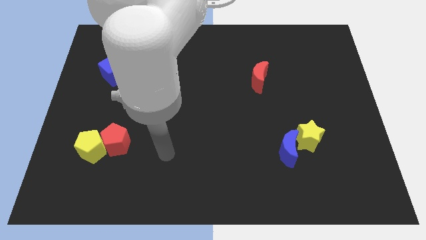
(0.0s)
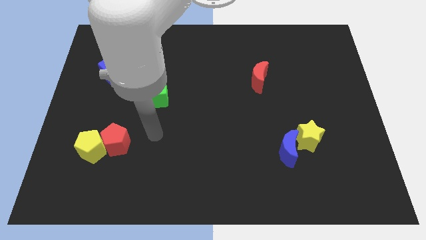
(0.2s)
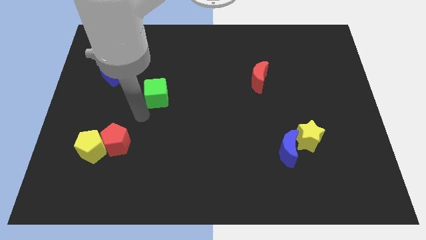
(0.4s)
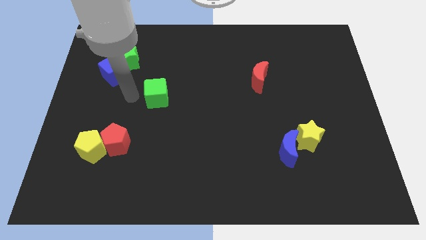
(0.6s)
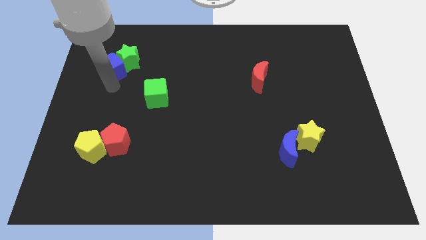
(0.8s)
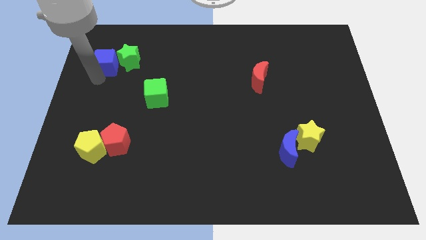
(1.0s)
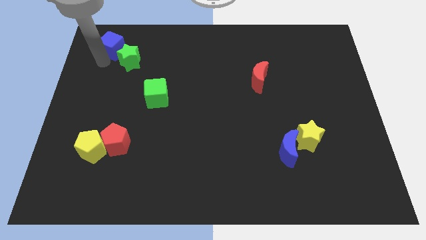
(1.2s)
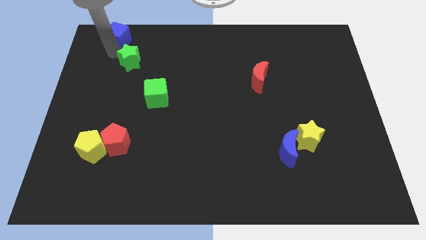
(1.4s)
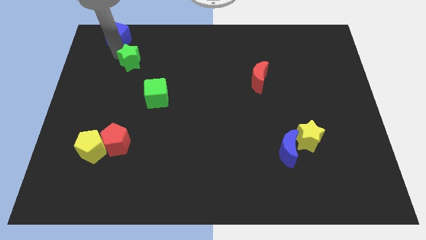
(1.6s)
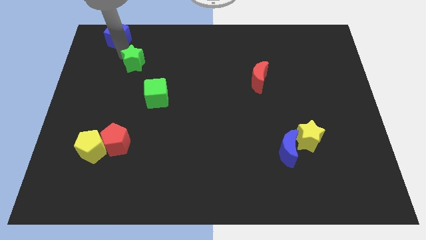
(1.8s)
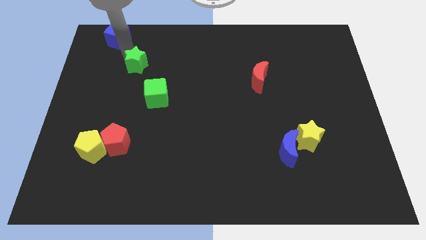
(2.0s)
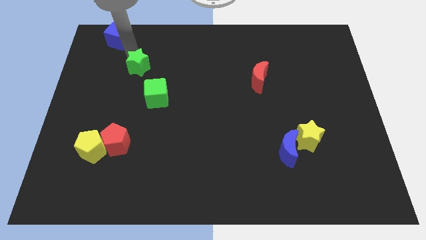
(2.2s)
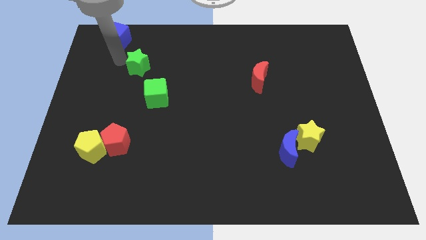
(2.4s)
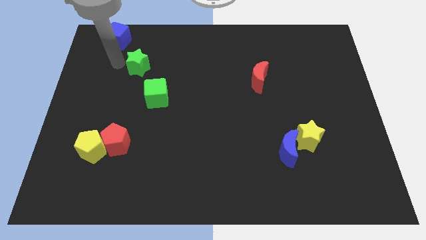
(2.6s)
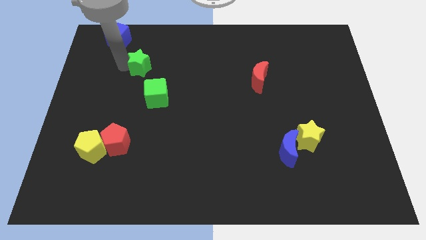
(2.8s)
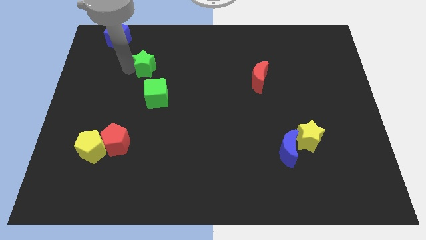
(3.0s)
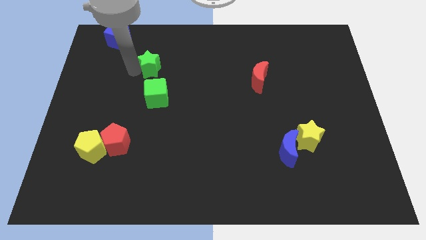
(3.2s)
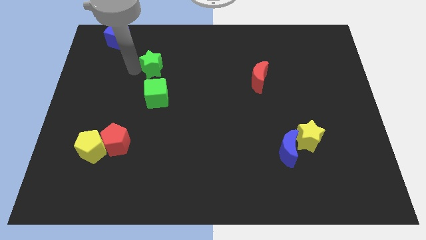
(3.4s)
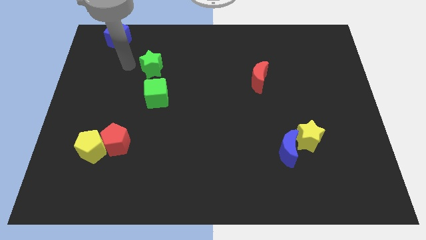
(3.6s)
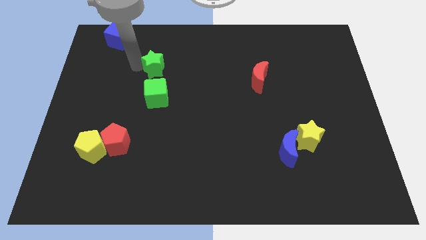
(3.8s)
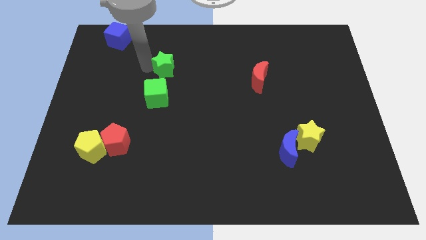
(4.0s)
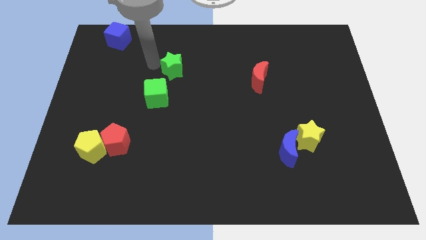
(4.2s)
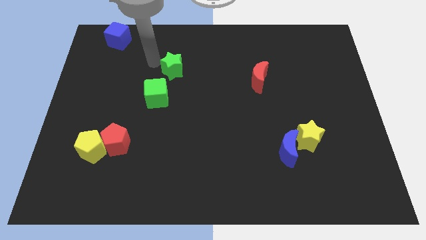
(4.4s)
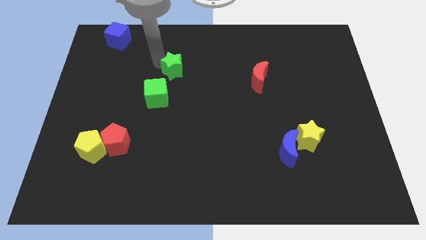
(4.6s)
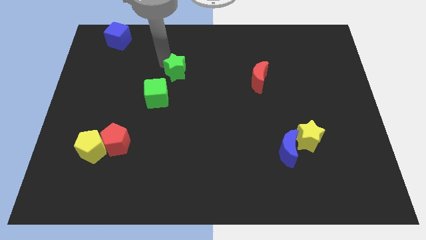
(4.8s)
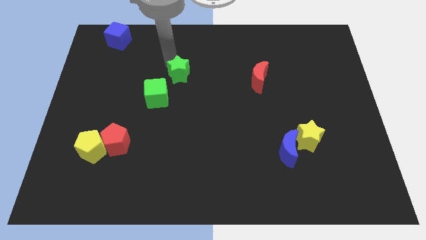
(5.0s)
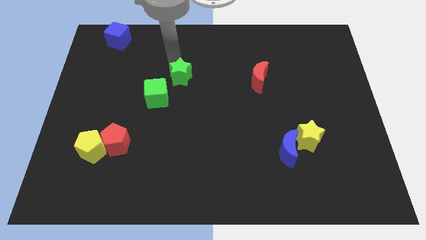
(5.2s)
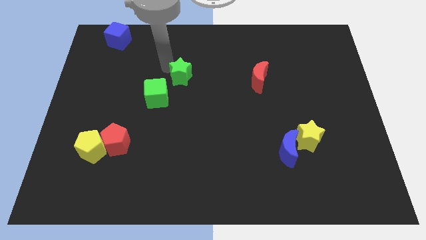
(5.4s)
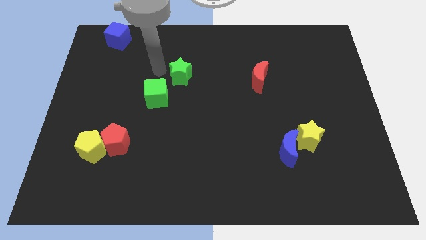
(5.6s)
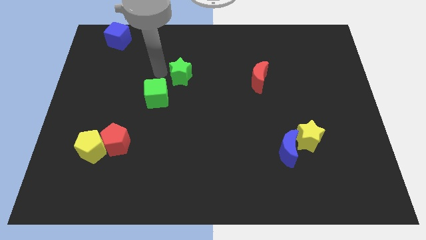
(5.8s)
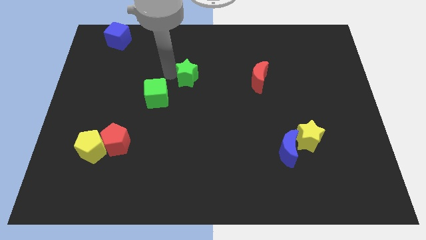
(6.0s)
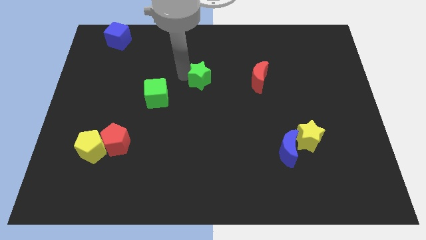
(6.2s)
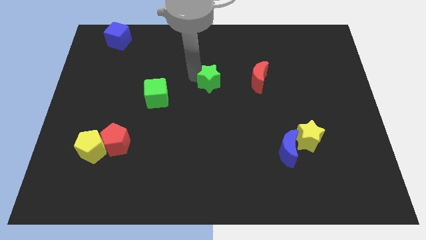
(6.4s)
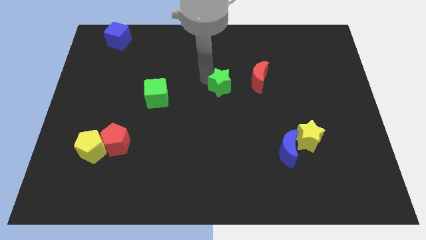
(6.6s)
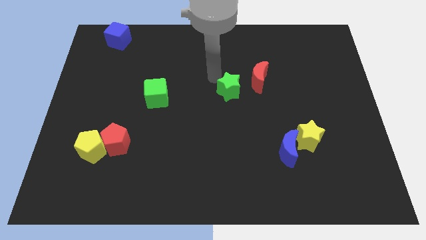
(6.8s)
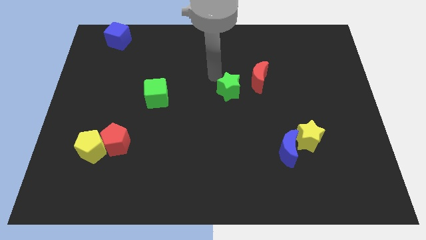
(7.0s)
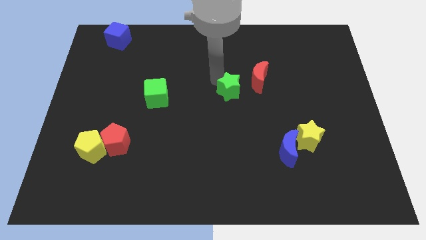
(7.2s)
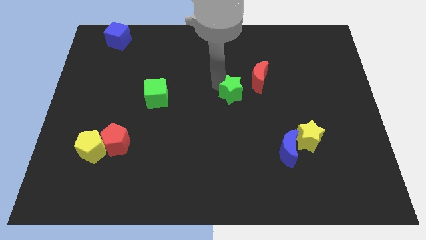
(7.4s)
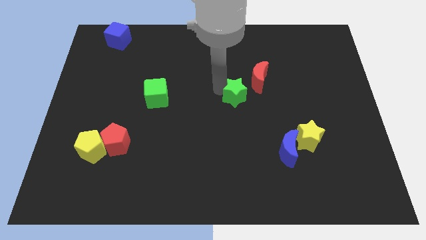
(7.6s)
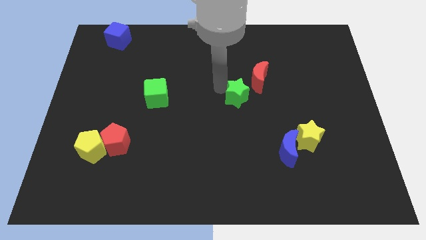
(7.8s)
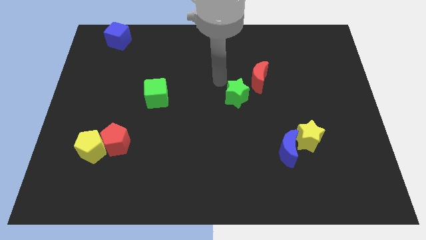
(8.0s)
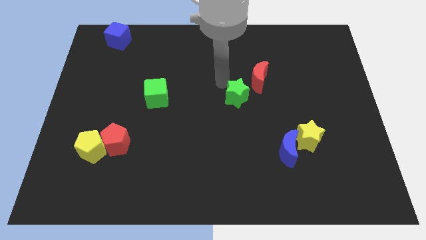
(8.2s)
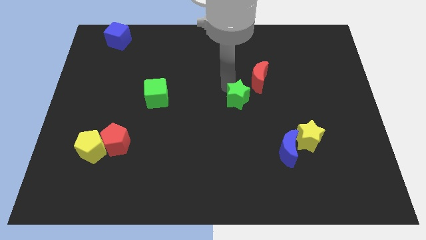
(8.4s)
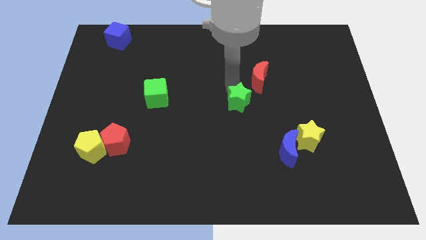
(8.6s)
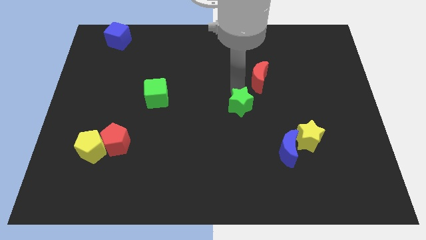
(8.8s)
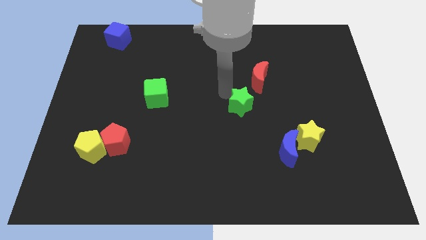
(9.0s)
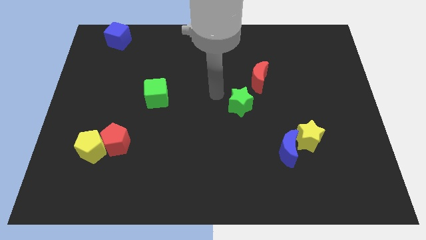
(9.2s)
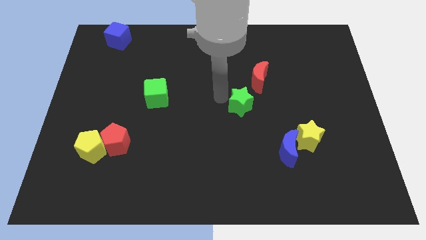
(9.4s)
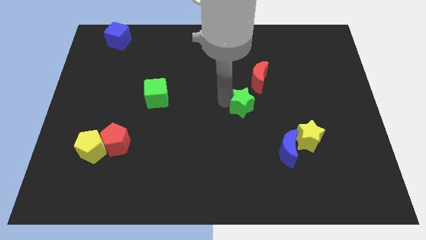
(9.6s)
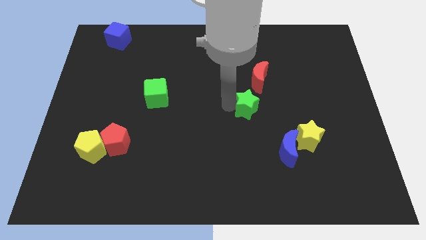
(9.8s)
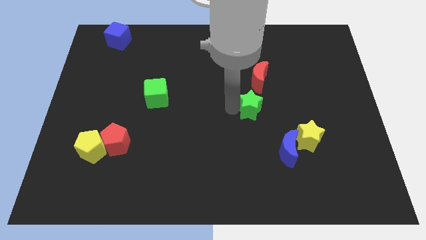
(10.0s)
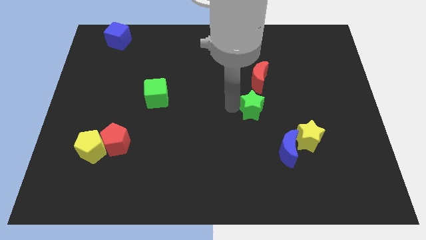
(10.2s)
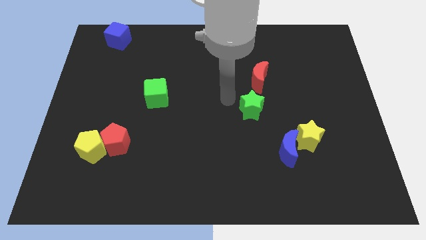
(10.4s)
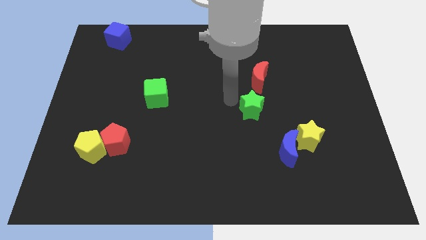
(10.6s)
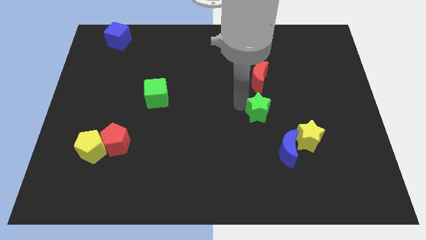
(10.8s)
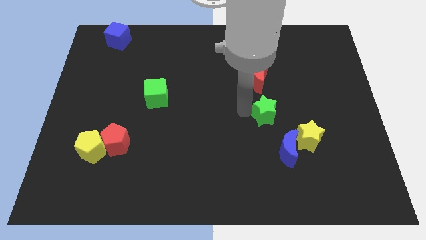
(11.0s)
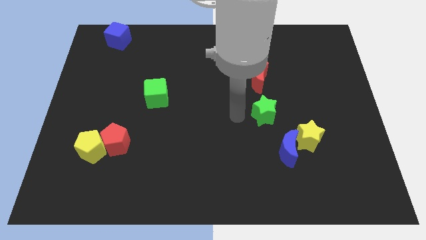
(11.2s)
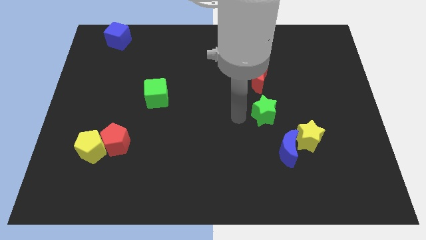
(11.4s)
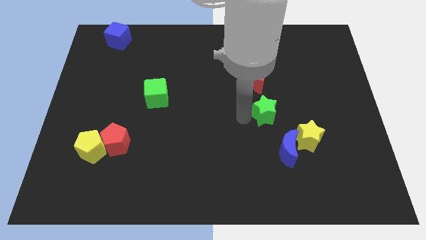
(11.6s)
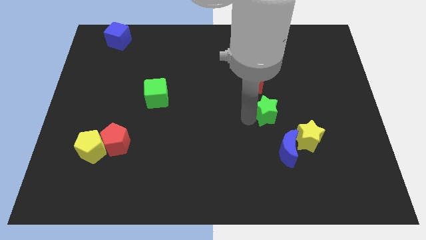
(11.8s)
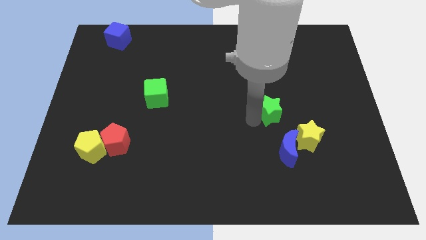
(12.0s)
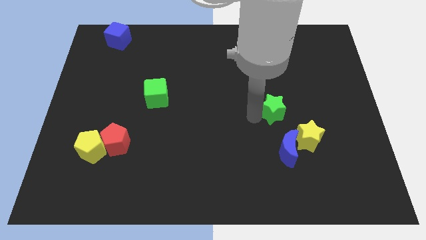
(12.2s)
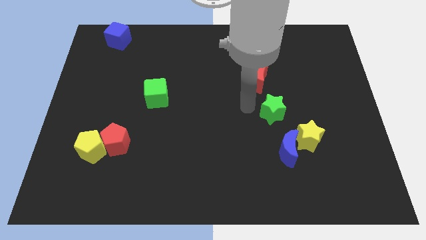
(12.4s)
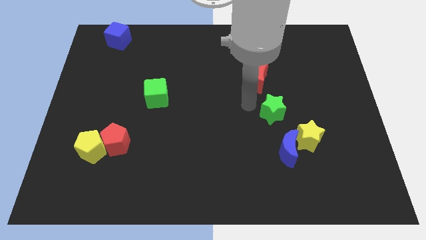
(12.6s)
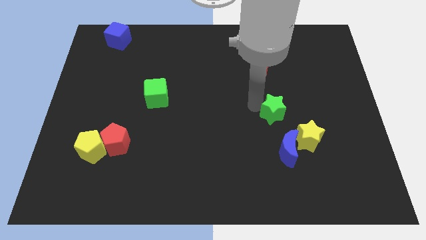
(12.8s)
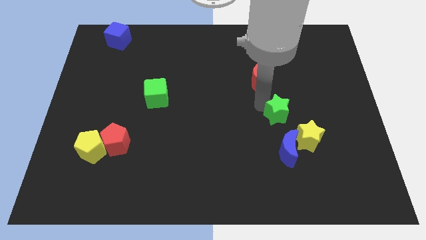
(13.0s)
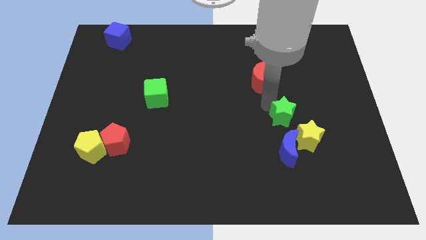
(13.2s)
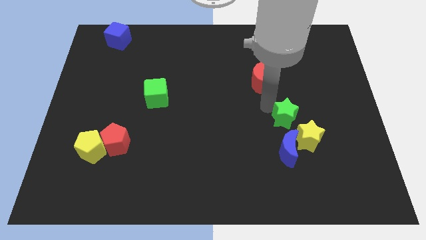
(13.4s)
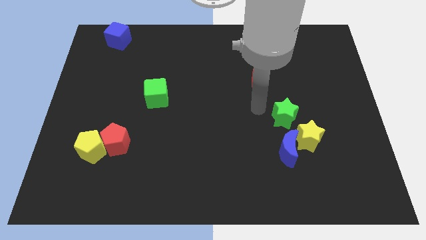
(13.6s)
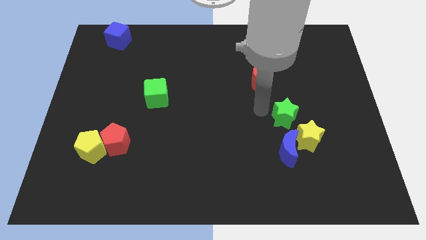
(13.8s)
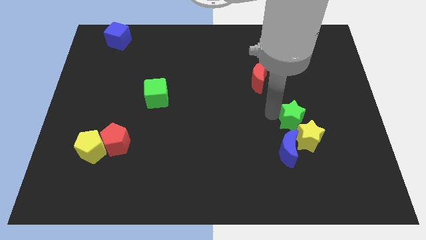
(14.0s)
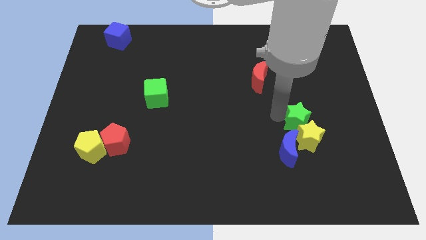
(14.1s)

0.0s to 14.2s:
push the green star towards the yellow star

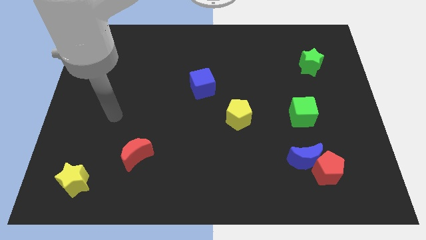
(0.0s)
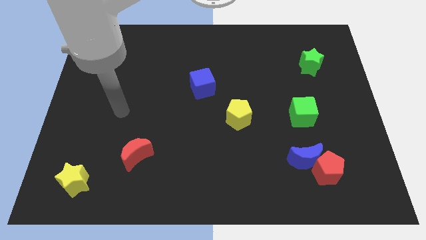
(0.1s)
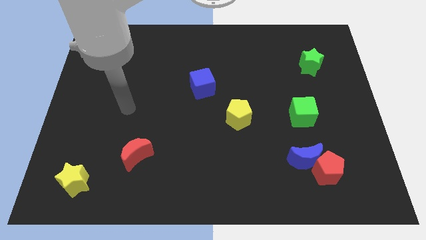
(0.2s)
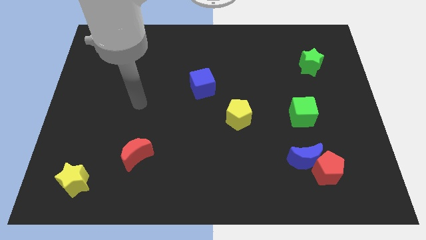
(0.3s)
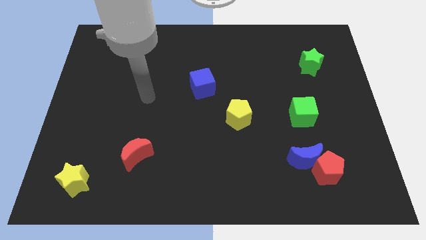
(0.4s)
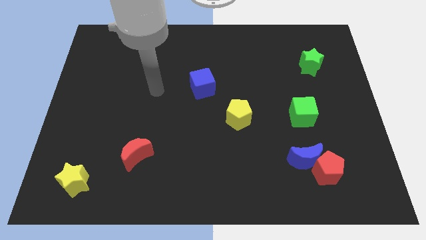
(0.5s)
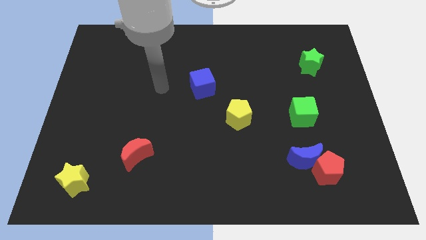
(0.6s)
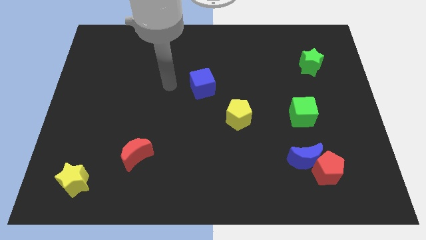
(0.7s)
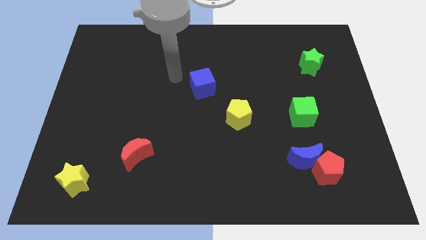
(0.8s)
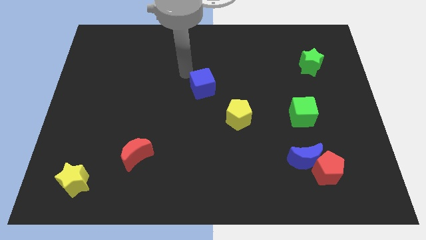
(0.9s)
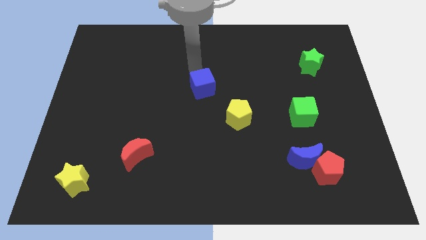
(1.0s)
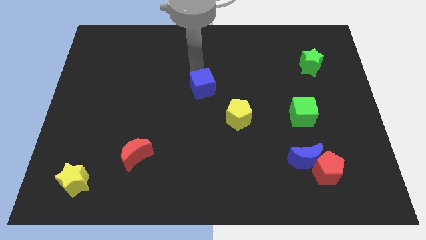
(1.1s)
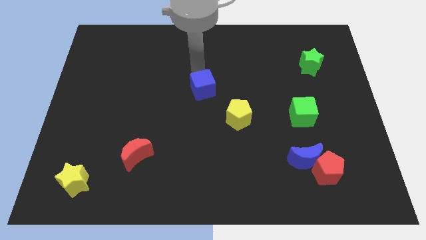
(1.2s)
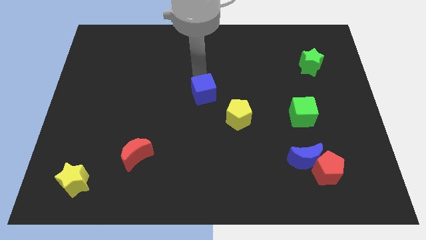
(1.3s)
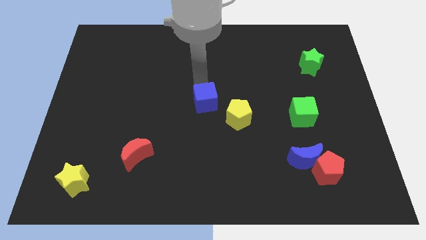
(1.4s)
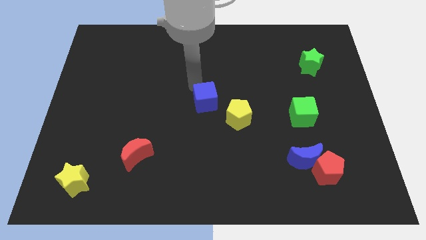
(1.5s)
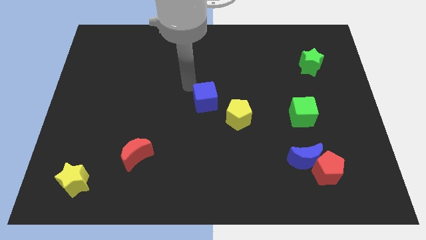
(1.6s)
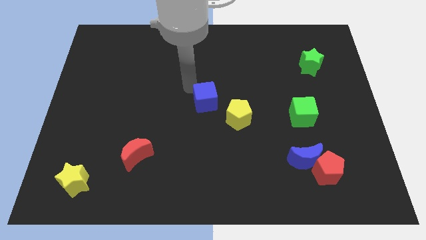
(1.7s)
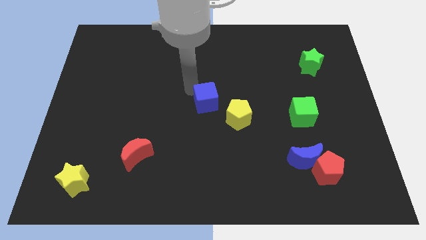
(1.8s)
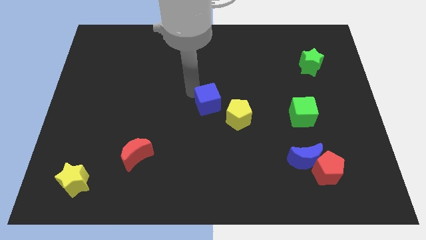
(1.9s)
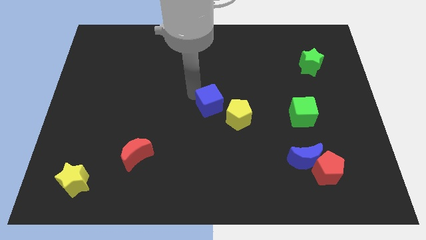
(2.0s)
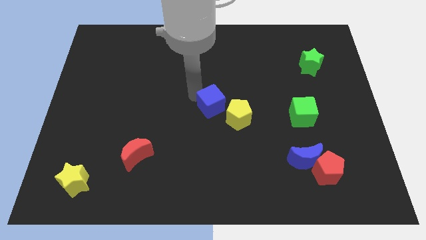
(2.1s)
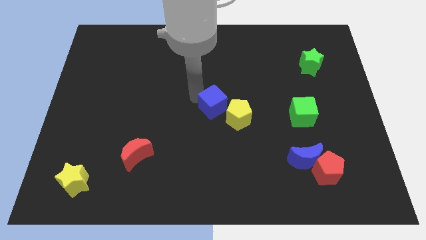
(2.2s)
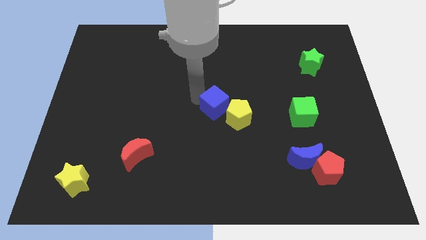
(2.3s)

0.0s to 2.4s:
move the blue cube next to the yellow pentagon
